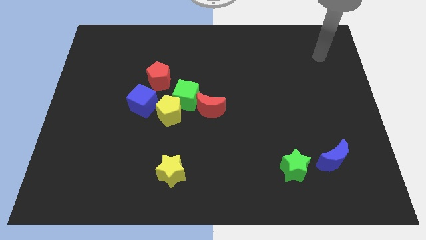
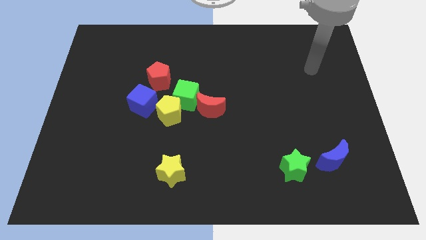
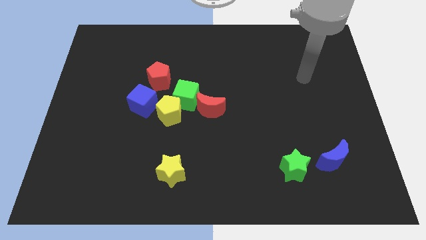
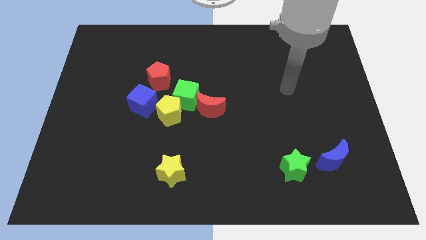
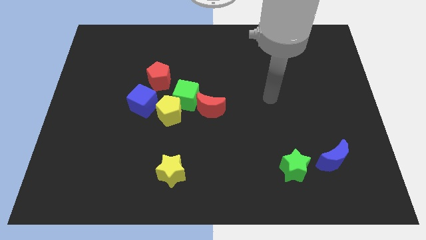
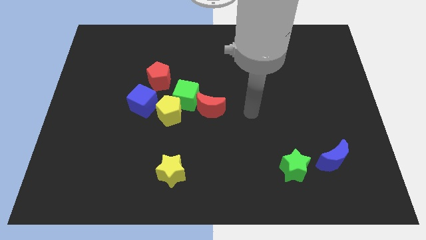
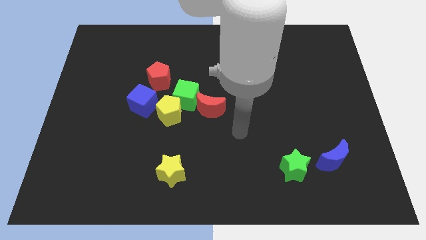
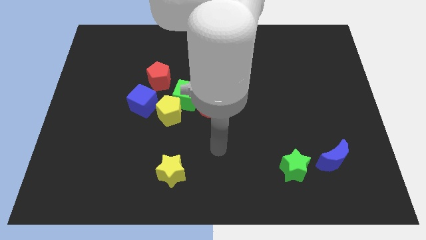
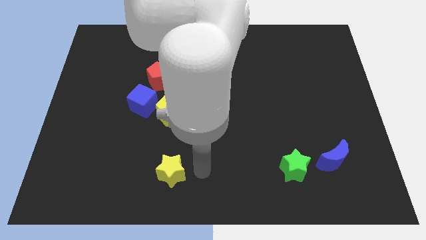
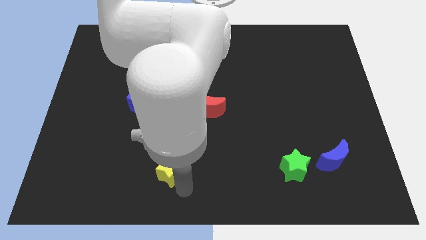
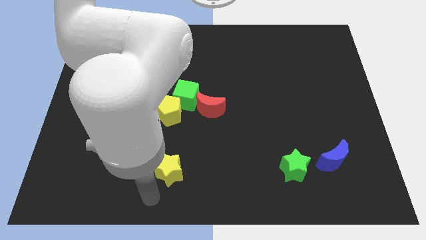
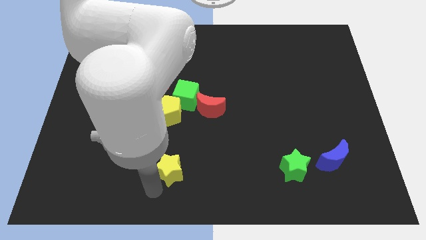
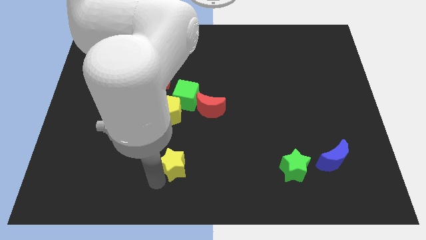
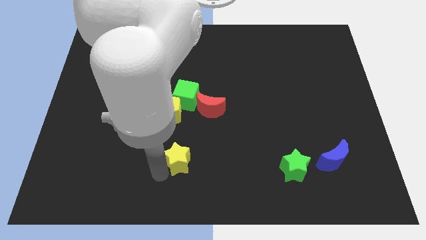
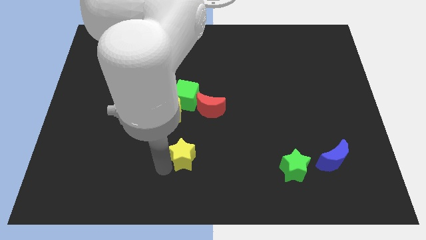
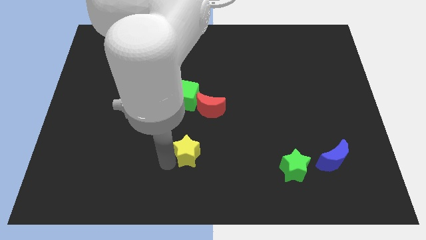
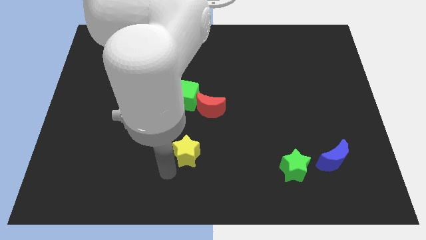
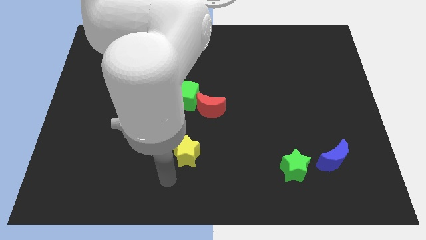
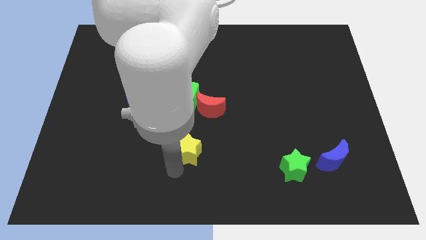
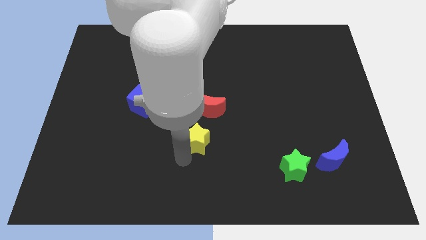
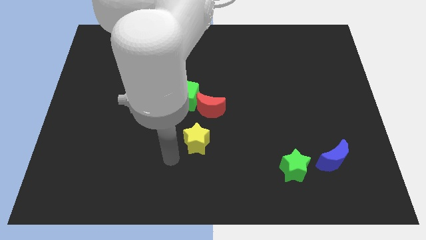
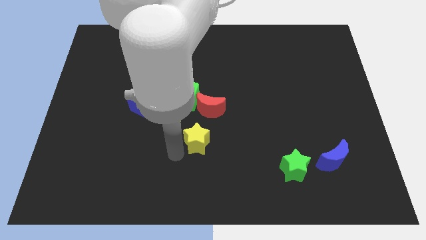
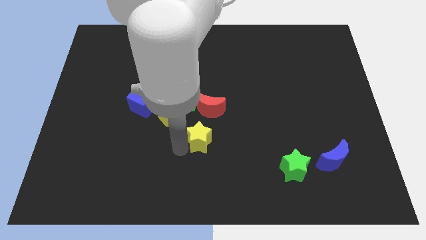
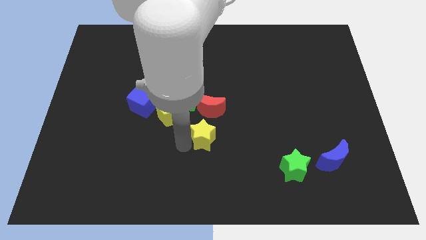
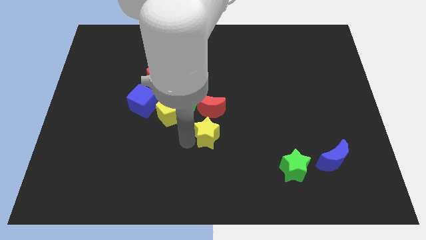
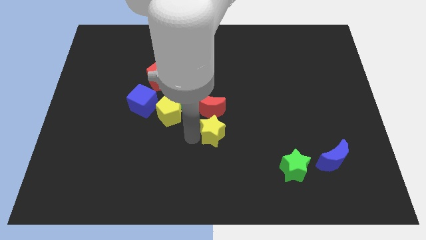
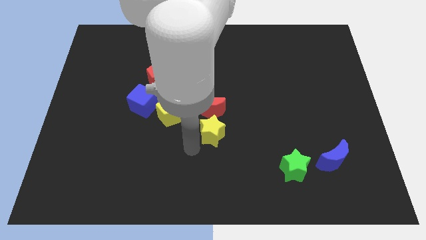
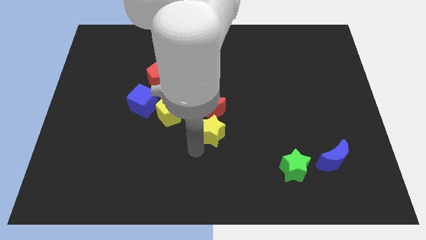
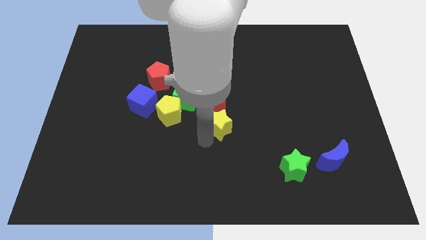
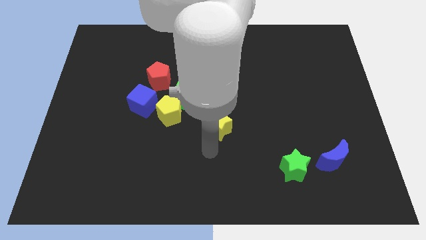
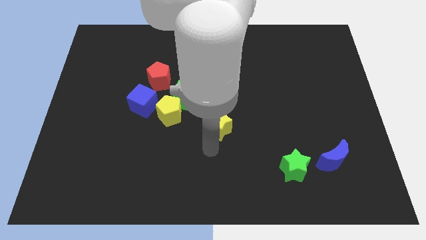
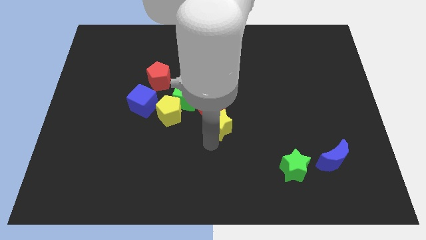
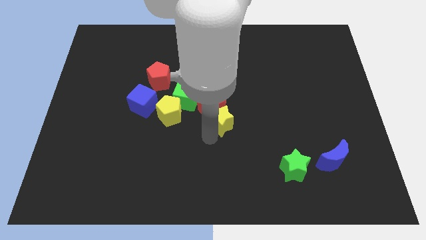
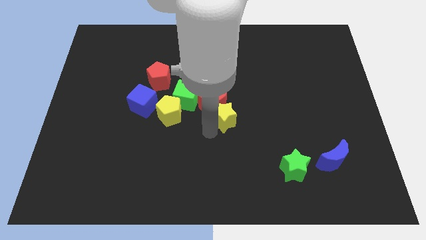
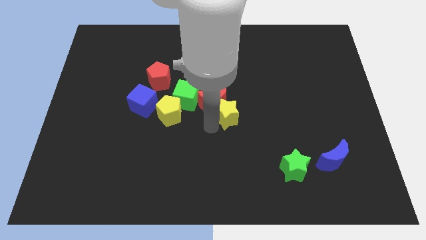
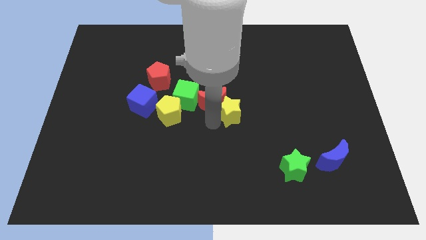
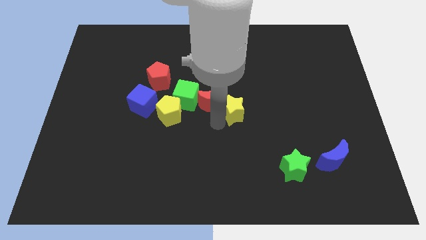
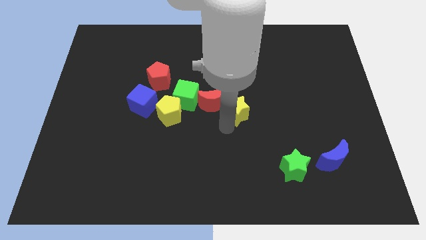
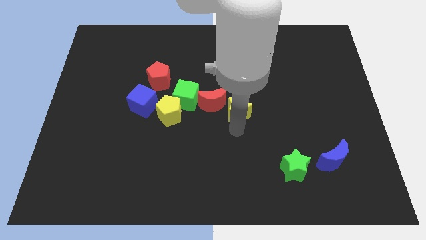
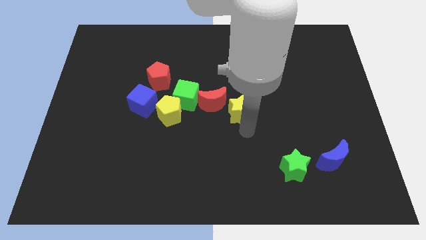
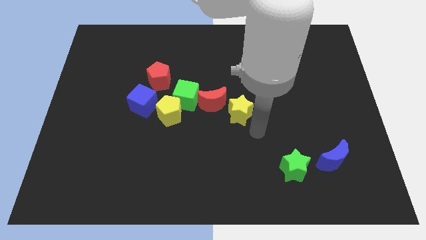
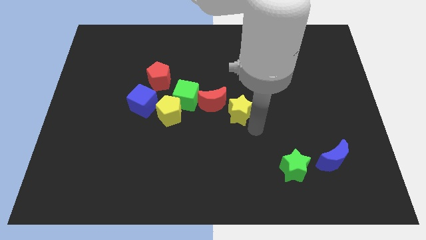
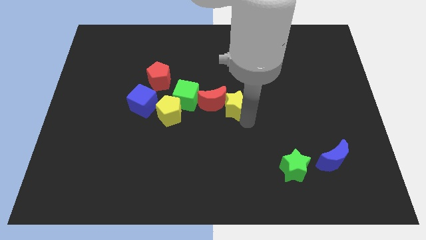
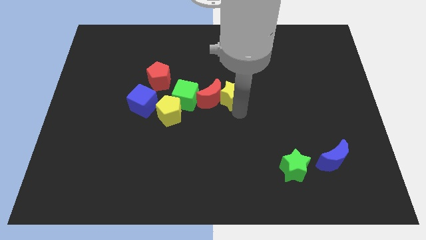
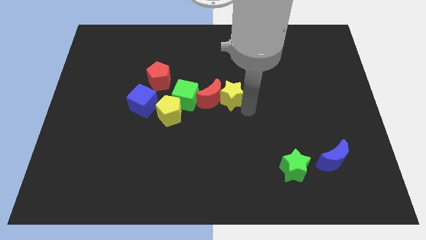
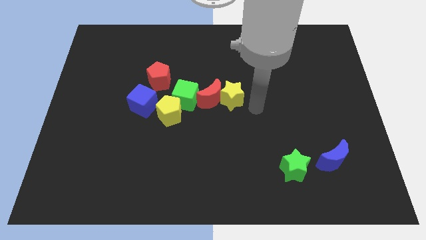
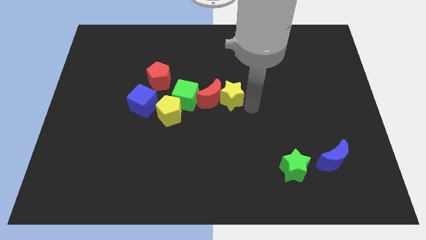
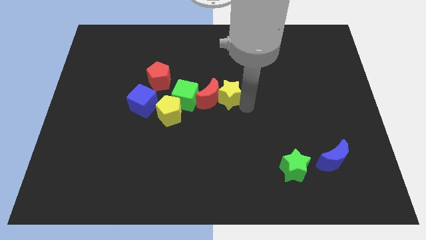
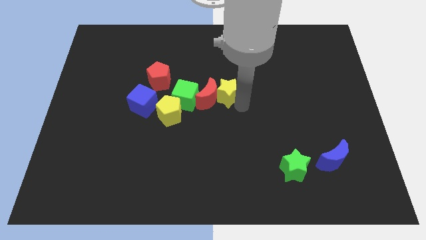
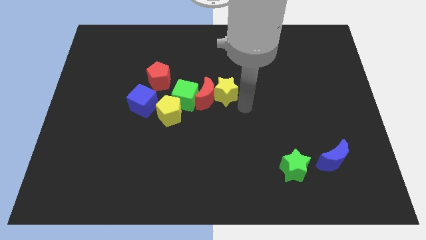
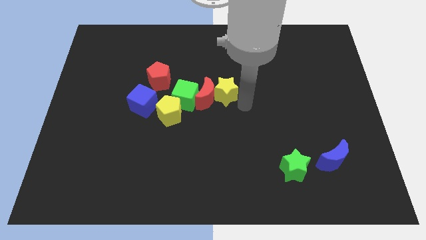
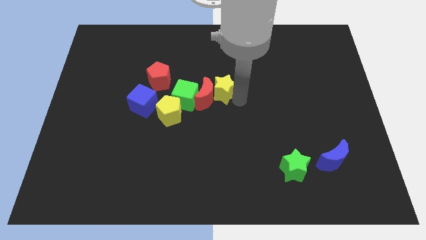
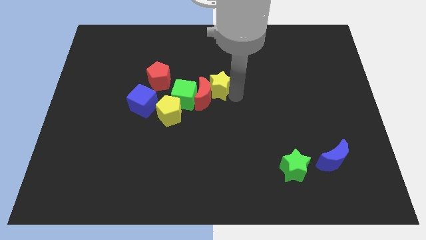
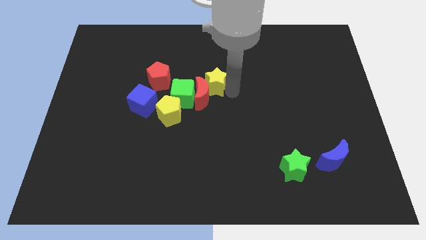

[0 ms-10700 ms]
move the yellow star upwards

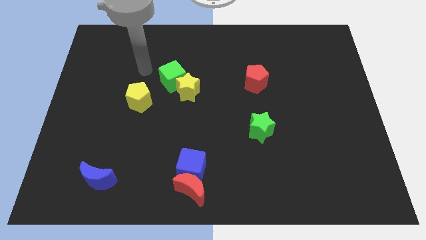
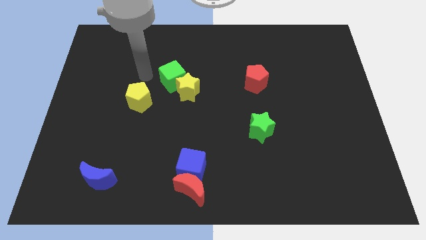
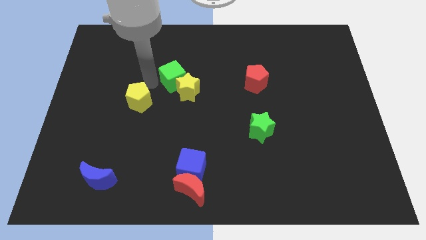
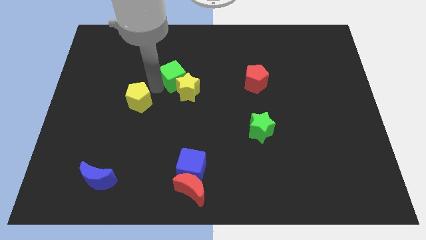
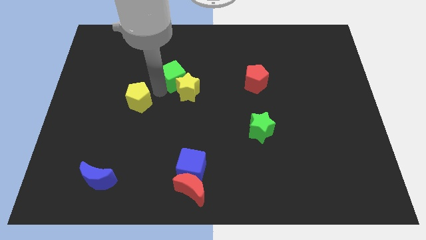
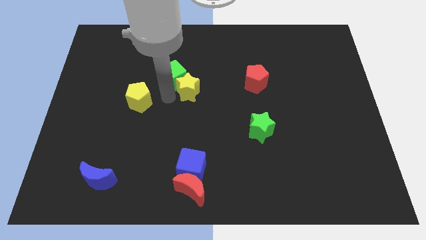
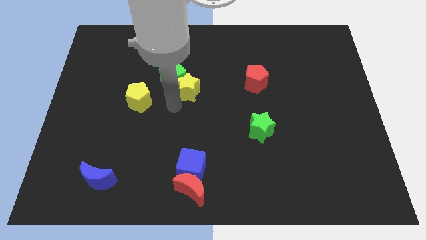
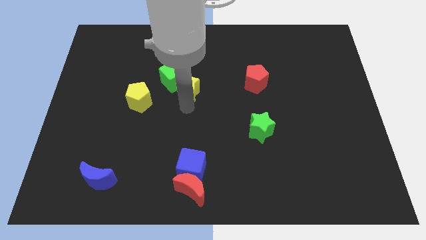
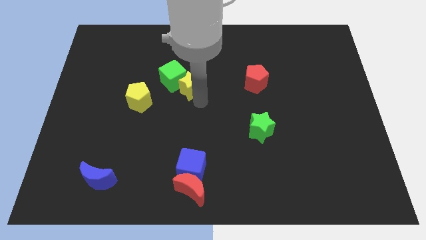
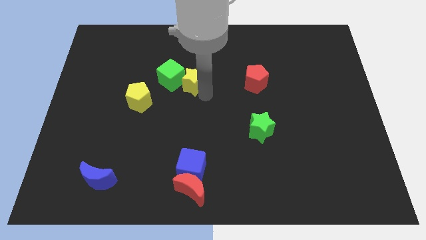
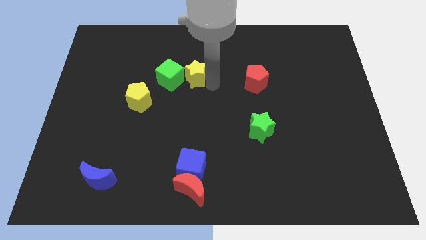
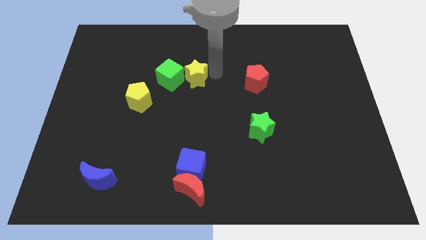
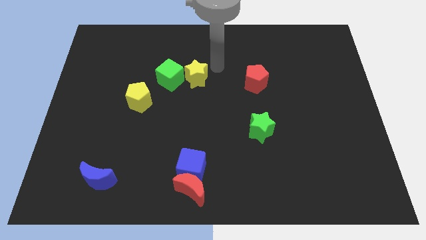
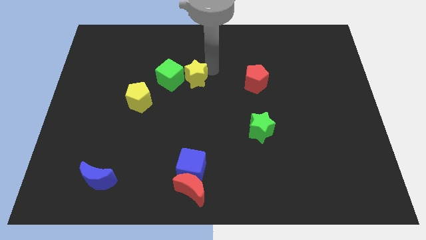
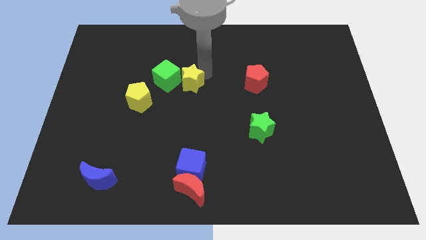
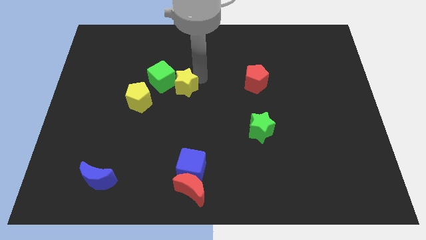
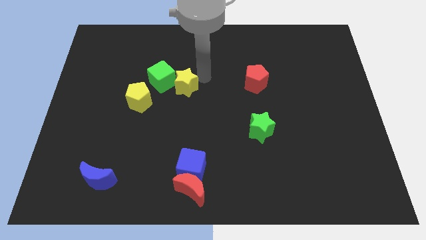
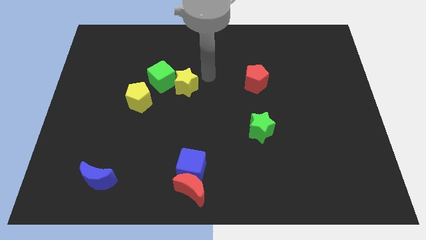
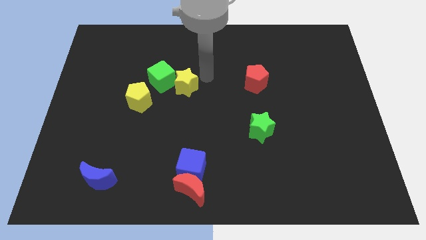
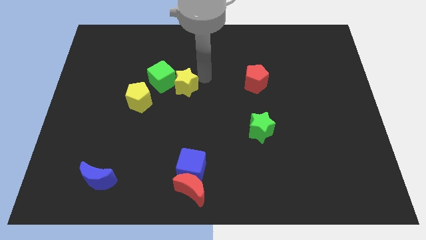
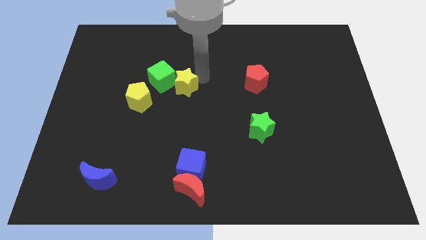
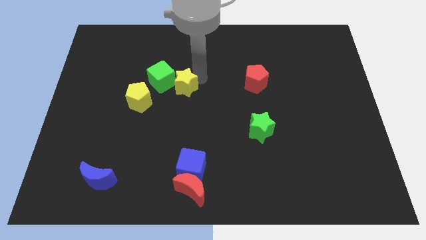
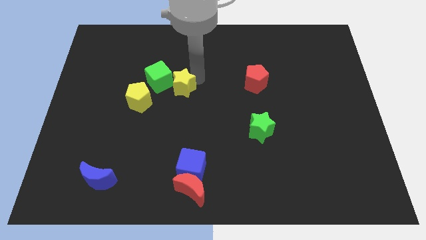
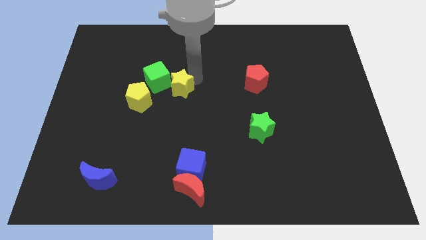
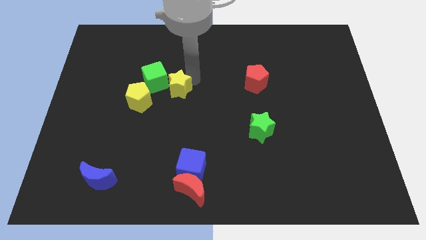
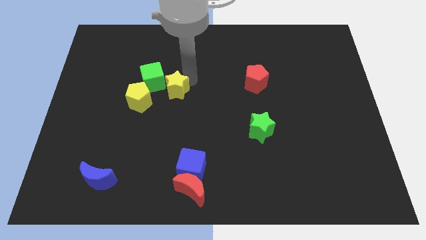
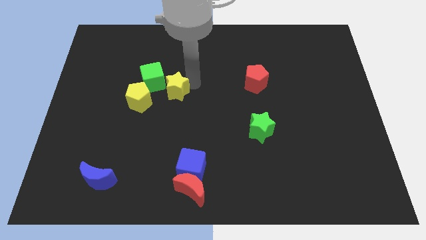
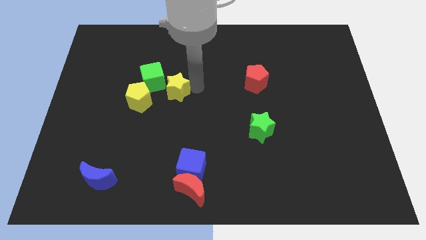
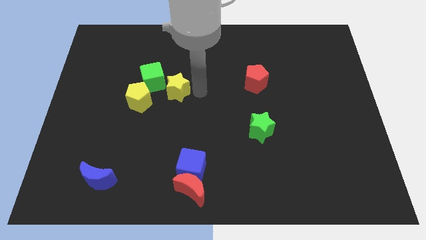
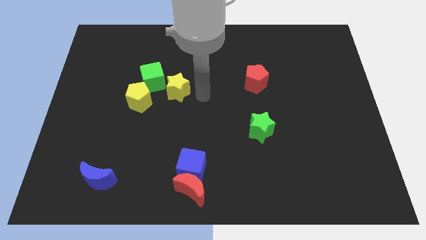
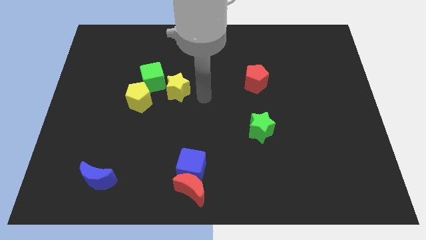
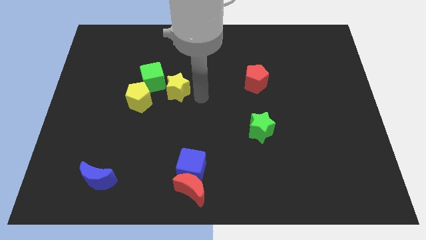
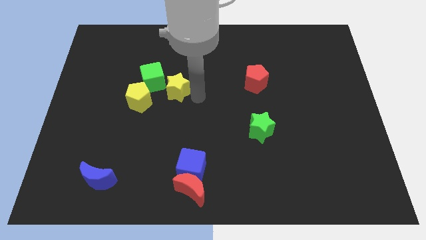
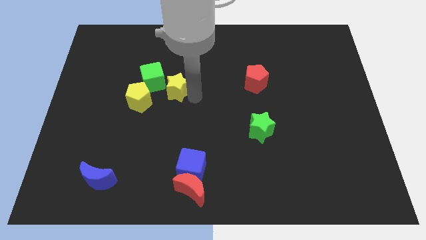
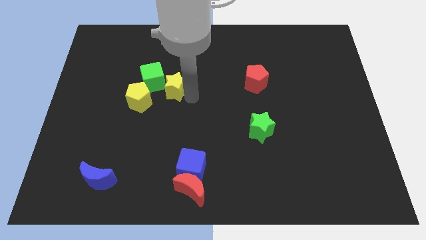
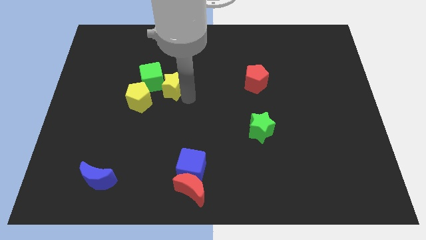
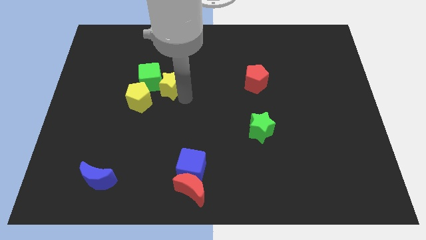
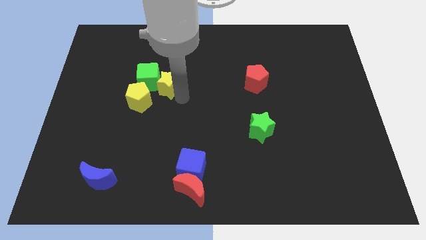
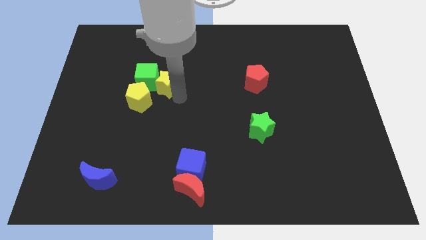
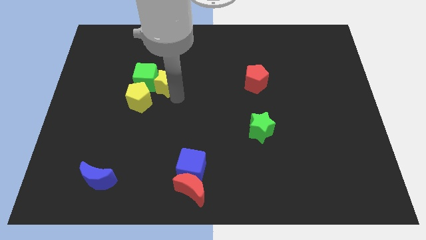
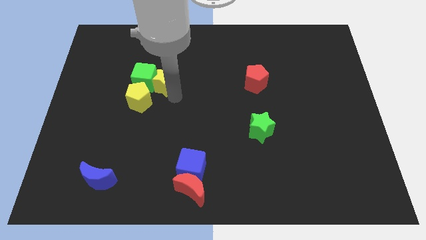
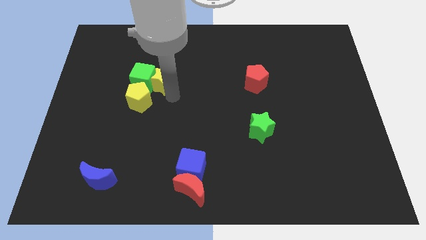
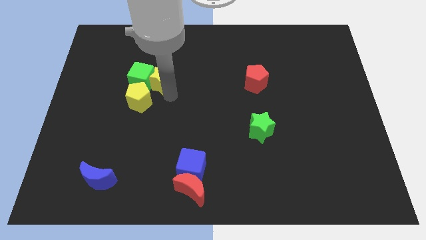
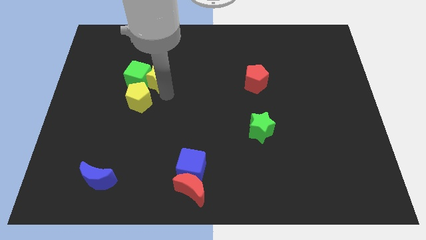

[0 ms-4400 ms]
slightly move the yellow star to the left
